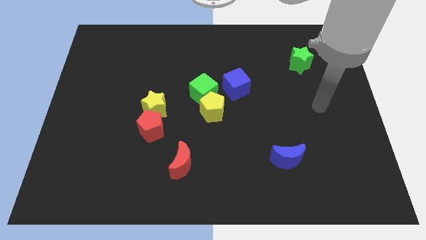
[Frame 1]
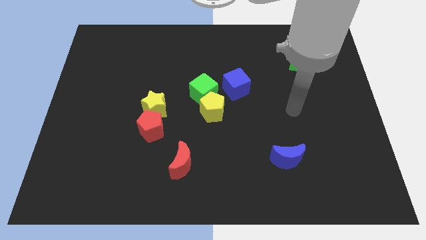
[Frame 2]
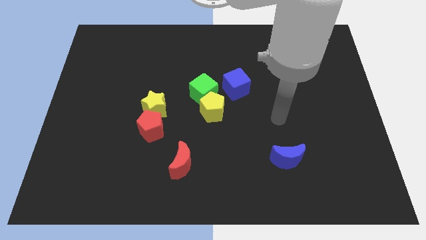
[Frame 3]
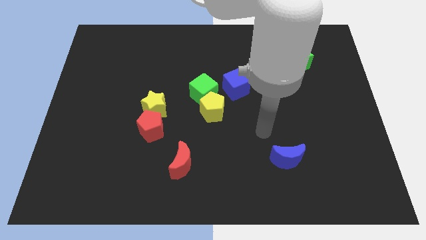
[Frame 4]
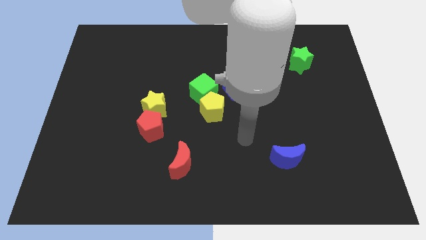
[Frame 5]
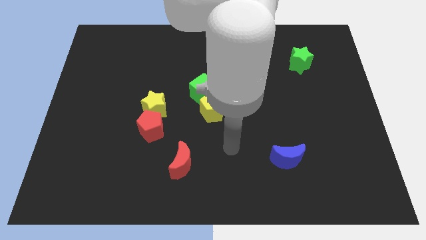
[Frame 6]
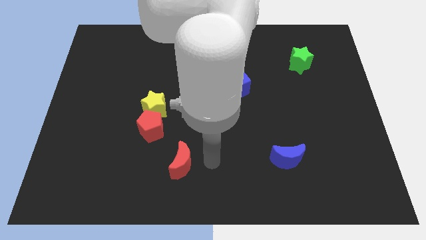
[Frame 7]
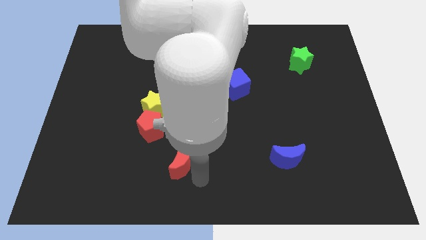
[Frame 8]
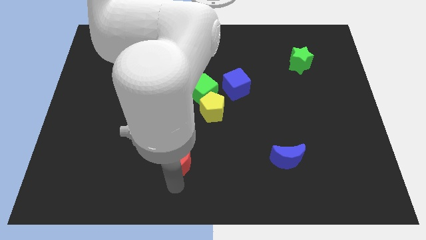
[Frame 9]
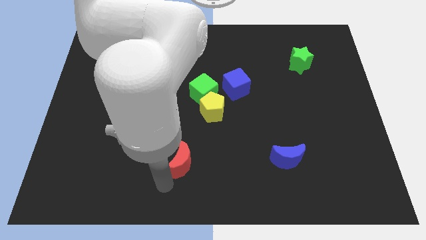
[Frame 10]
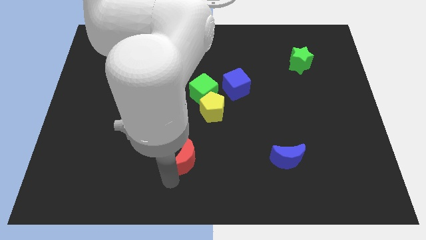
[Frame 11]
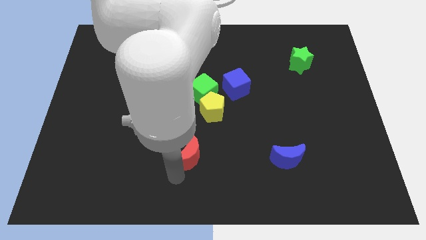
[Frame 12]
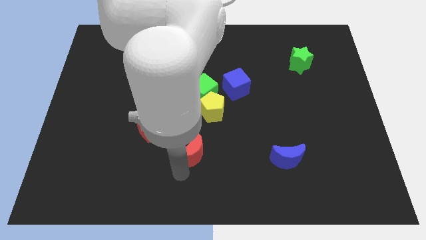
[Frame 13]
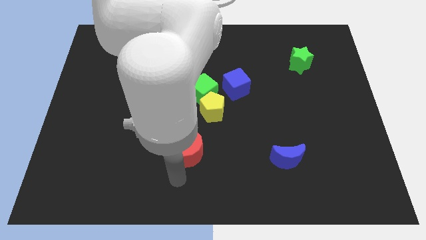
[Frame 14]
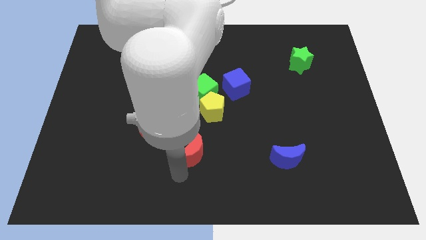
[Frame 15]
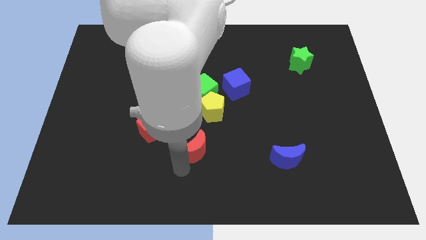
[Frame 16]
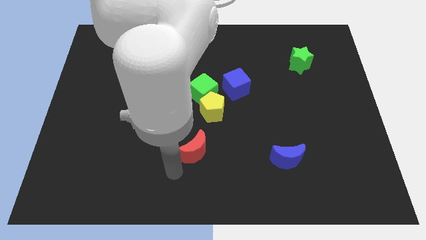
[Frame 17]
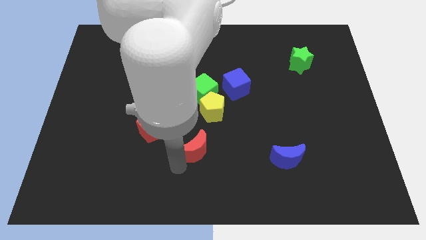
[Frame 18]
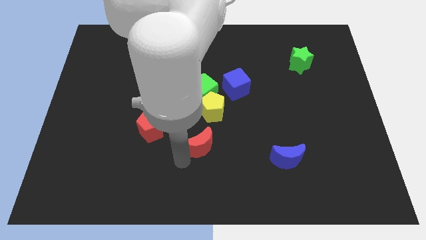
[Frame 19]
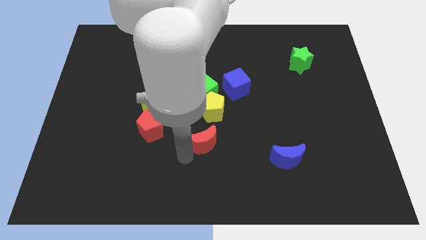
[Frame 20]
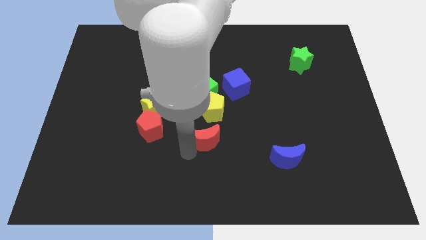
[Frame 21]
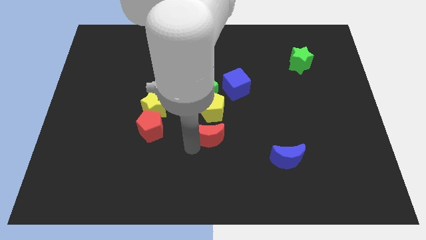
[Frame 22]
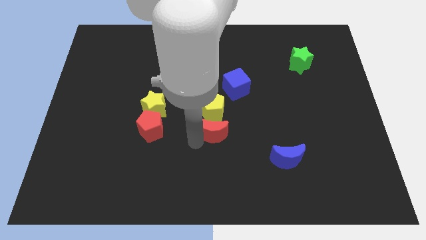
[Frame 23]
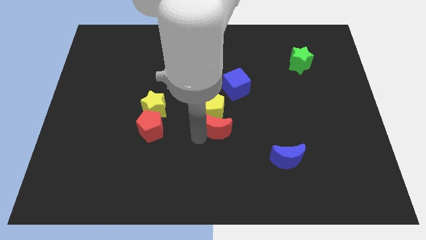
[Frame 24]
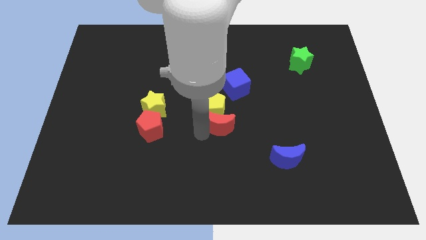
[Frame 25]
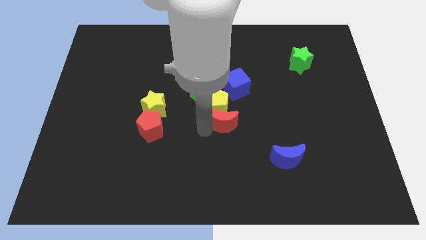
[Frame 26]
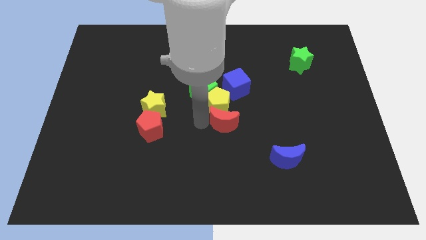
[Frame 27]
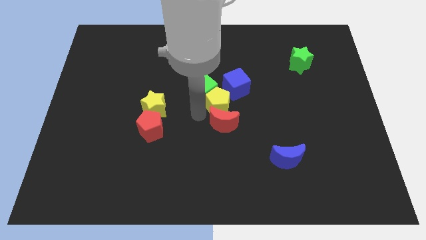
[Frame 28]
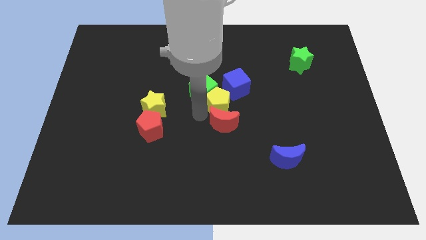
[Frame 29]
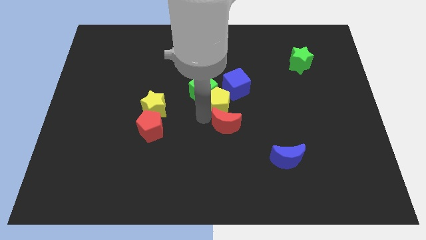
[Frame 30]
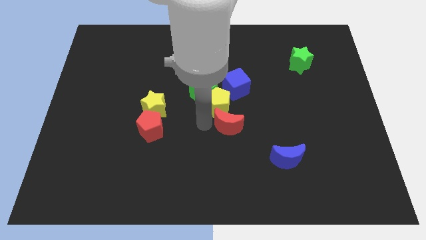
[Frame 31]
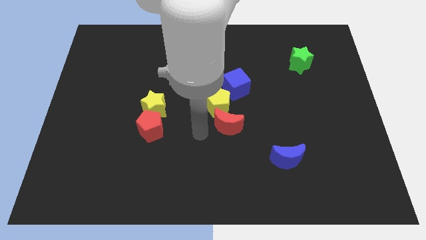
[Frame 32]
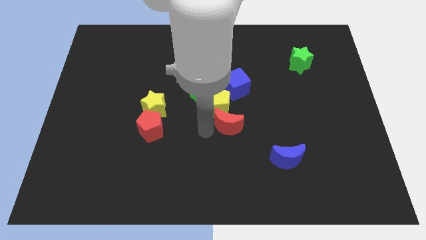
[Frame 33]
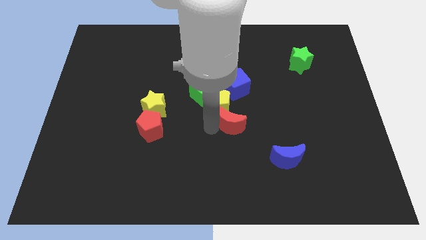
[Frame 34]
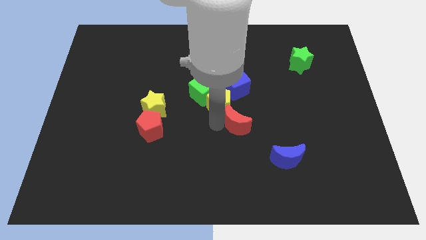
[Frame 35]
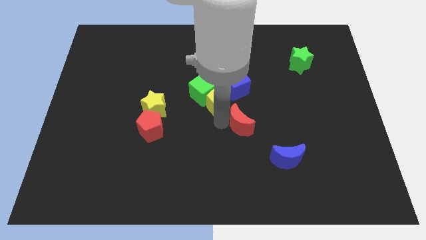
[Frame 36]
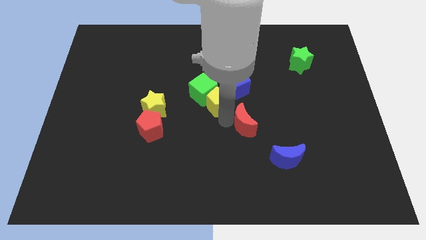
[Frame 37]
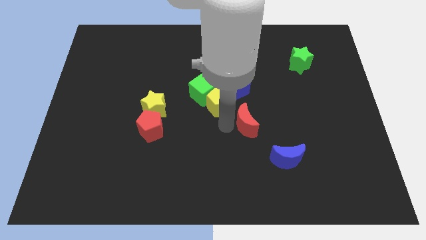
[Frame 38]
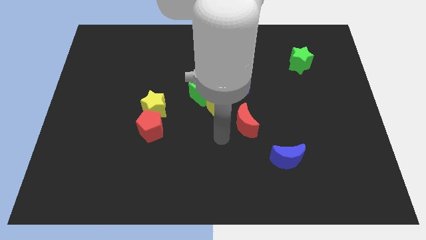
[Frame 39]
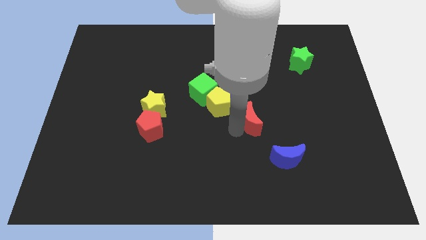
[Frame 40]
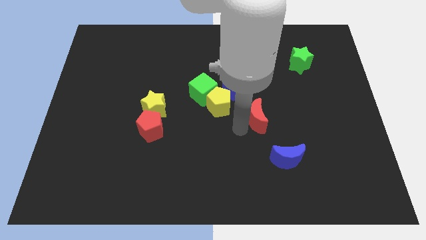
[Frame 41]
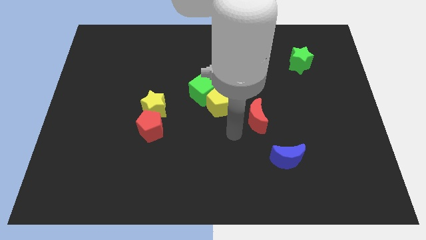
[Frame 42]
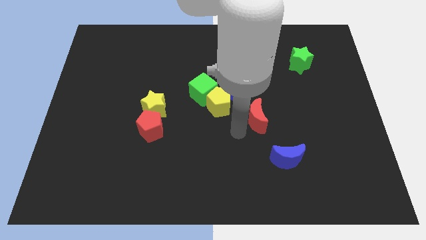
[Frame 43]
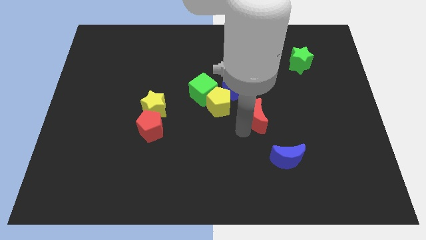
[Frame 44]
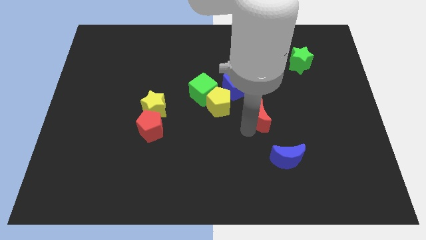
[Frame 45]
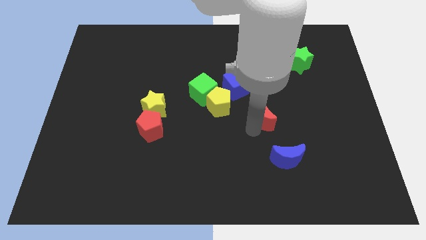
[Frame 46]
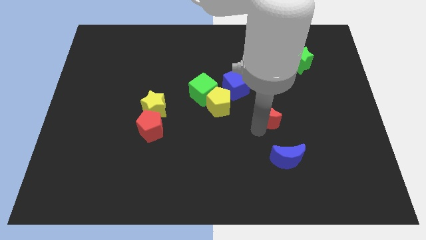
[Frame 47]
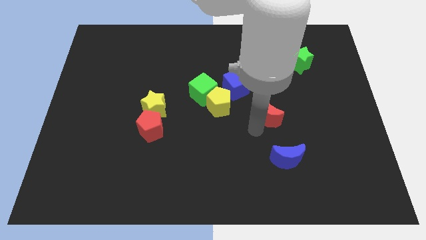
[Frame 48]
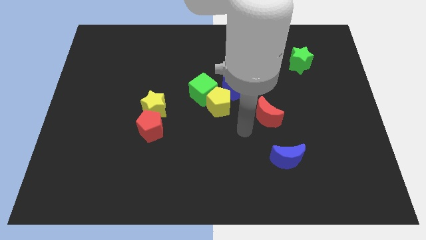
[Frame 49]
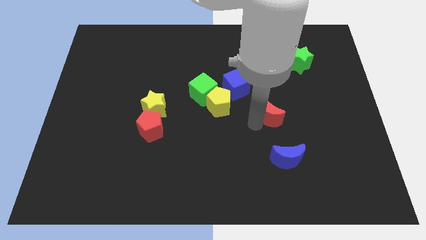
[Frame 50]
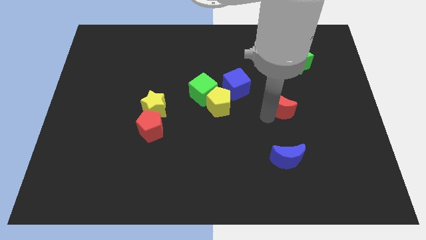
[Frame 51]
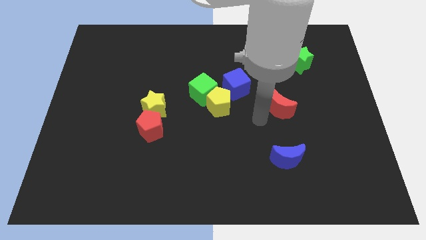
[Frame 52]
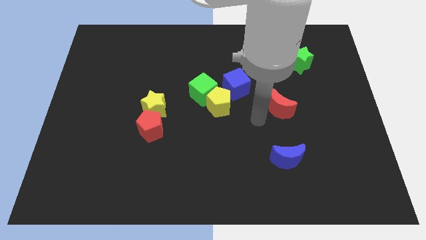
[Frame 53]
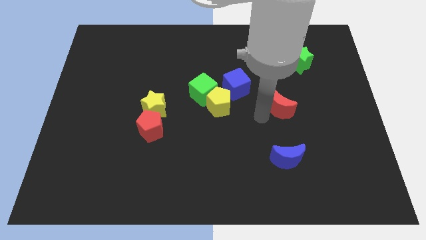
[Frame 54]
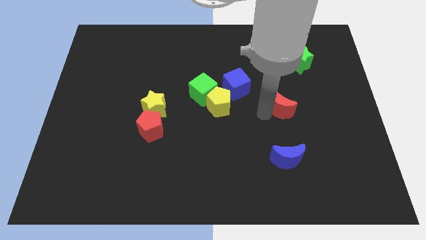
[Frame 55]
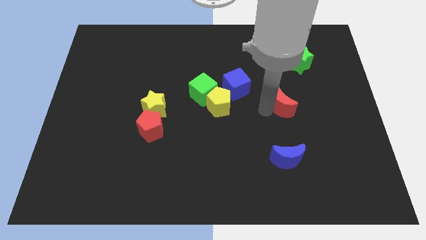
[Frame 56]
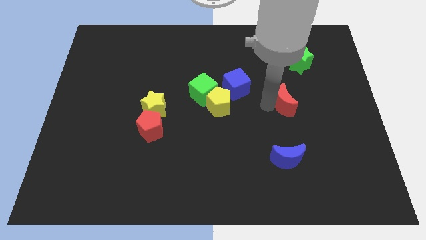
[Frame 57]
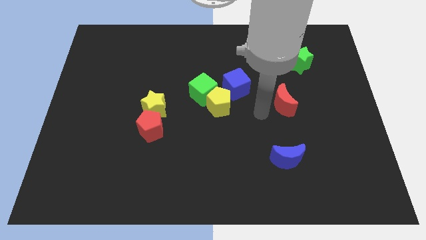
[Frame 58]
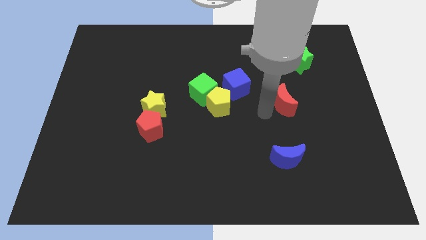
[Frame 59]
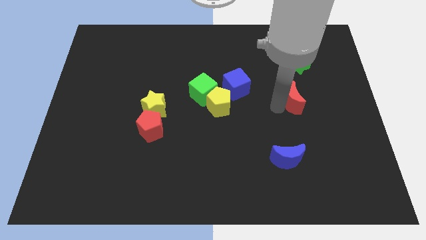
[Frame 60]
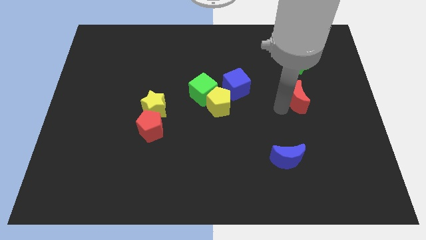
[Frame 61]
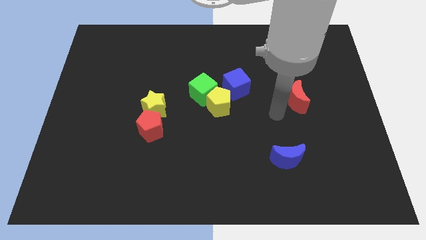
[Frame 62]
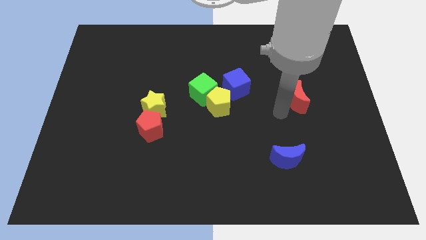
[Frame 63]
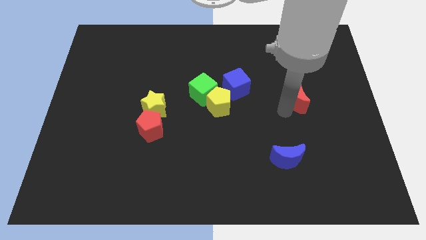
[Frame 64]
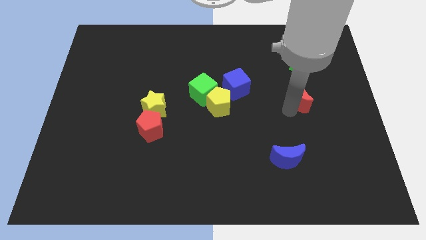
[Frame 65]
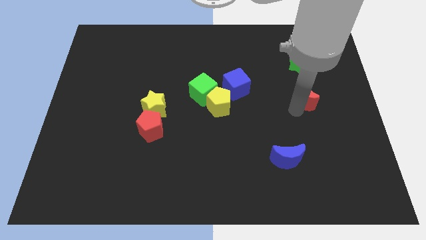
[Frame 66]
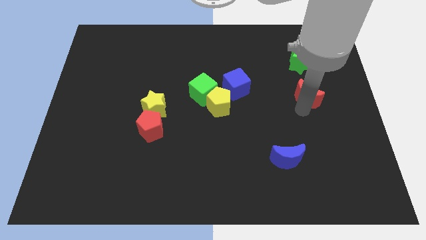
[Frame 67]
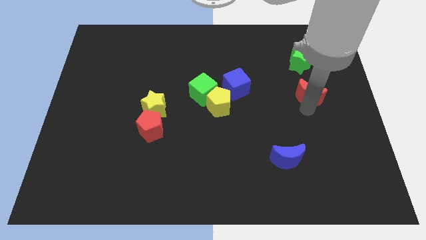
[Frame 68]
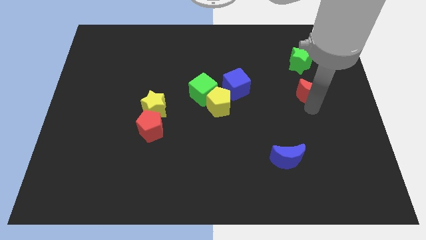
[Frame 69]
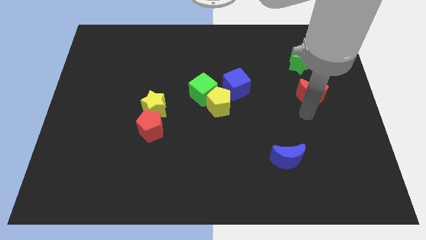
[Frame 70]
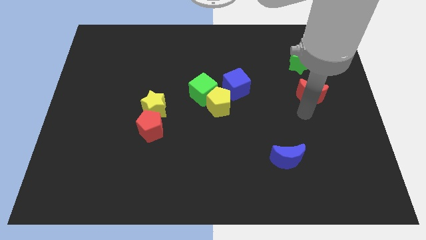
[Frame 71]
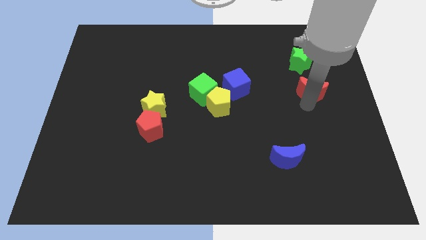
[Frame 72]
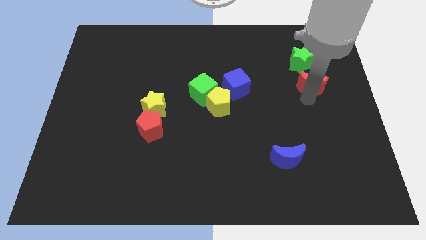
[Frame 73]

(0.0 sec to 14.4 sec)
push the red moon to the bottom right of the green star

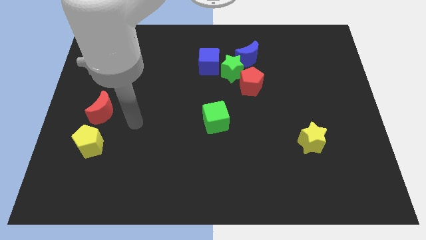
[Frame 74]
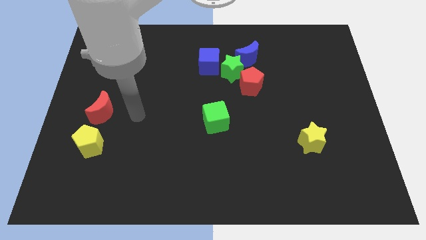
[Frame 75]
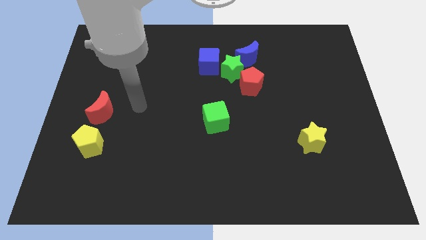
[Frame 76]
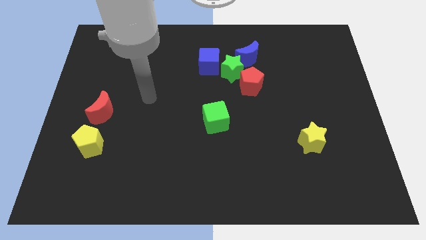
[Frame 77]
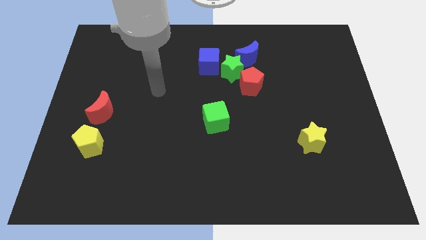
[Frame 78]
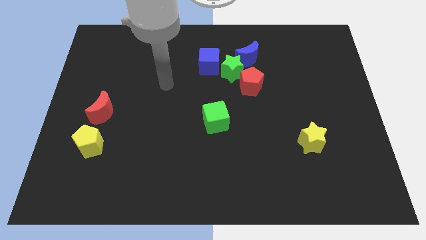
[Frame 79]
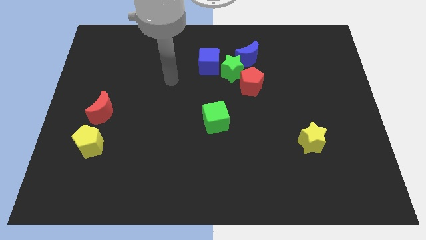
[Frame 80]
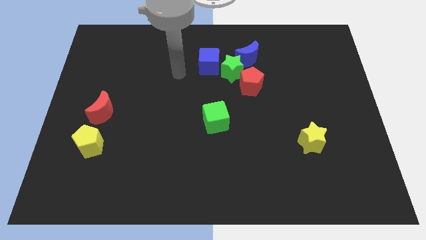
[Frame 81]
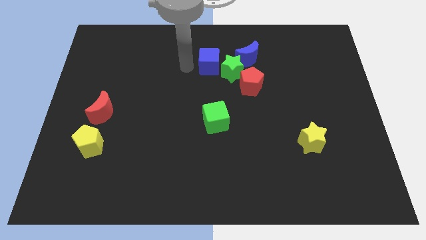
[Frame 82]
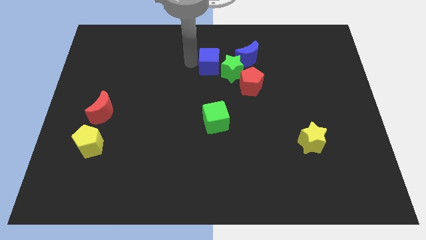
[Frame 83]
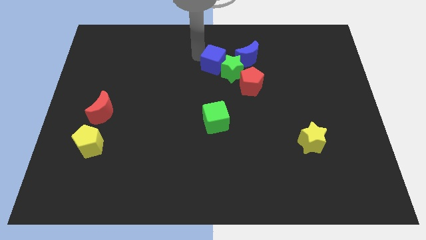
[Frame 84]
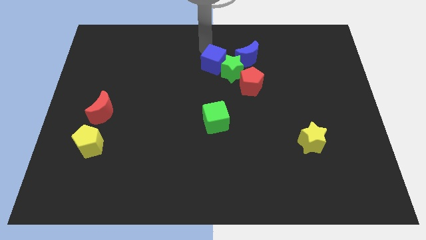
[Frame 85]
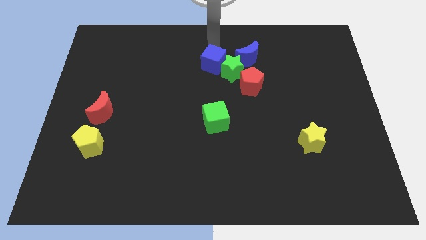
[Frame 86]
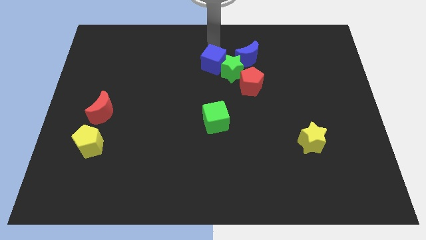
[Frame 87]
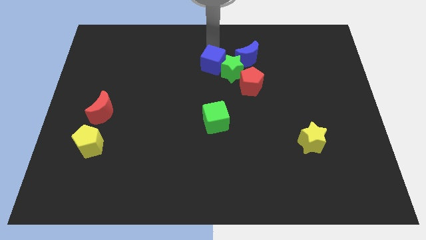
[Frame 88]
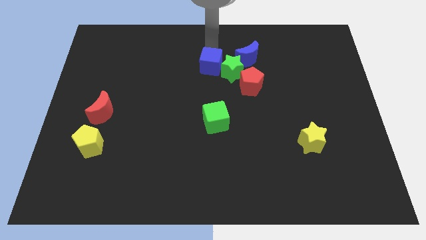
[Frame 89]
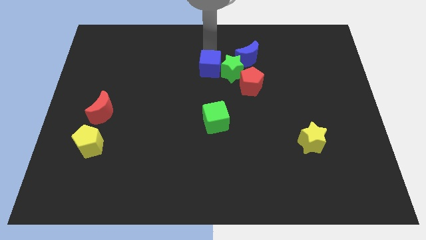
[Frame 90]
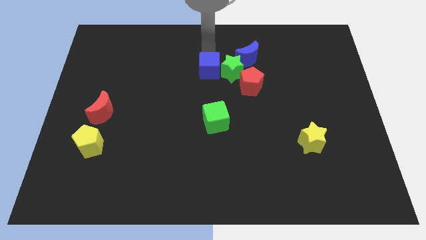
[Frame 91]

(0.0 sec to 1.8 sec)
put the blue cube to the bottom left side of the green star
